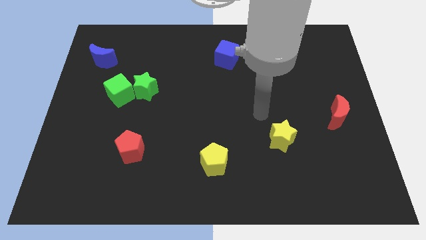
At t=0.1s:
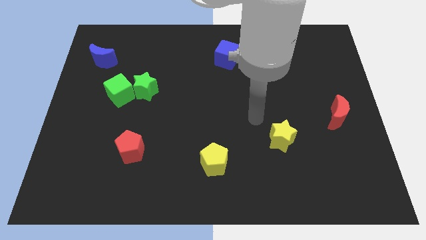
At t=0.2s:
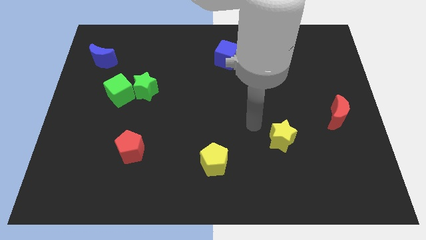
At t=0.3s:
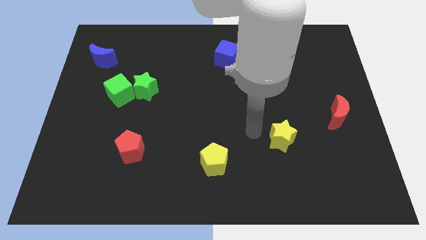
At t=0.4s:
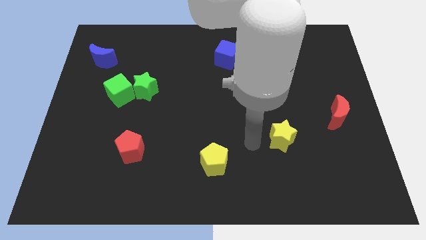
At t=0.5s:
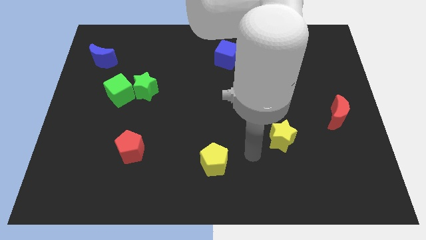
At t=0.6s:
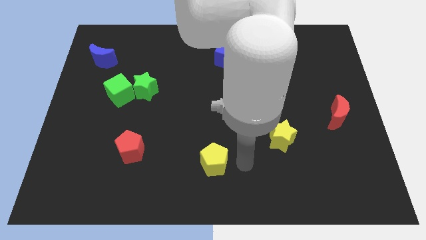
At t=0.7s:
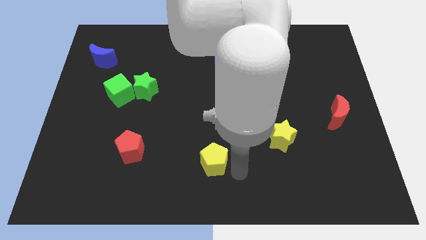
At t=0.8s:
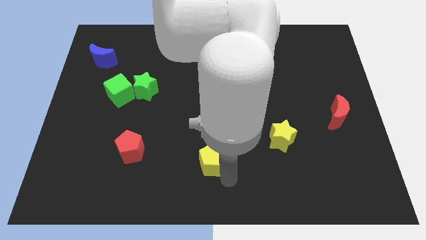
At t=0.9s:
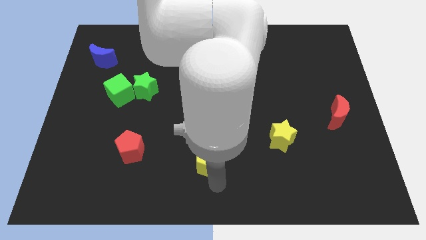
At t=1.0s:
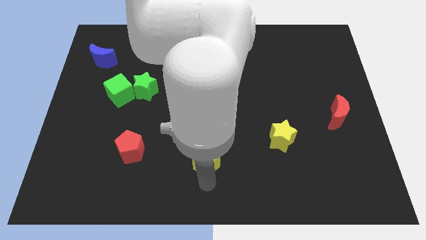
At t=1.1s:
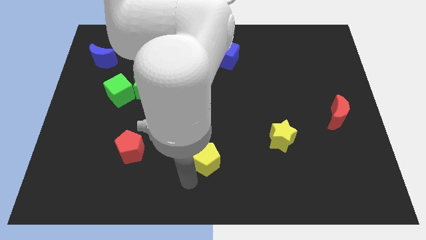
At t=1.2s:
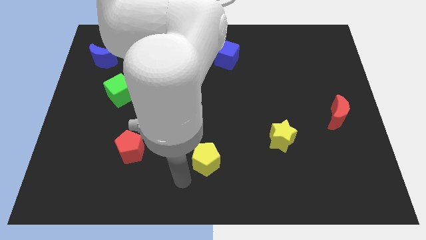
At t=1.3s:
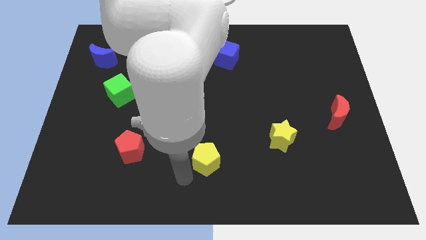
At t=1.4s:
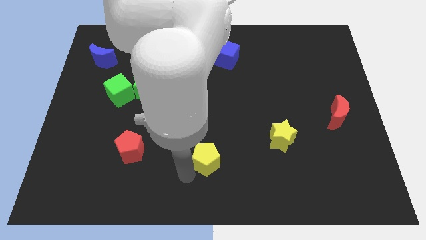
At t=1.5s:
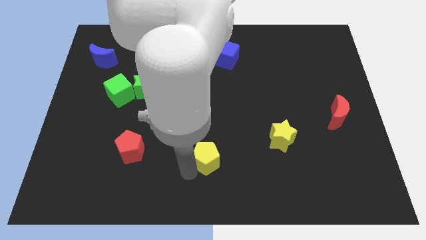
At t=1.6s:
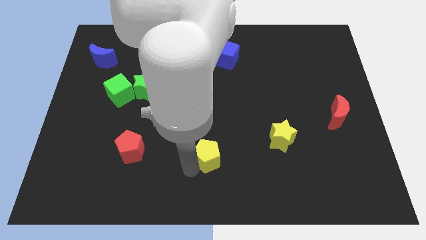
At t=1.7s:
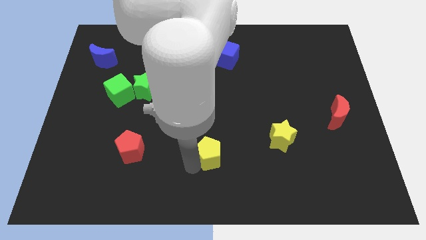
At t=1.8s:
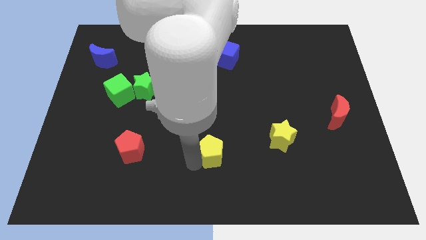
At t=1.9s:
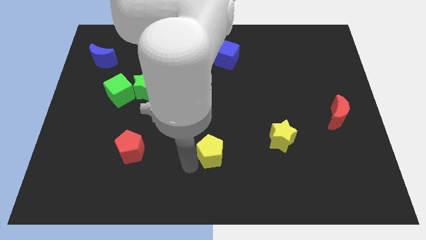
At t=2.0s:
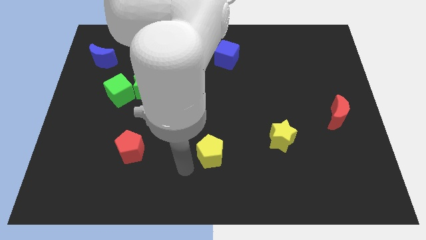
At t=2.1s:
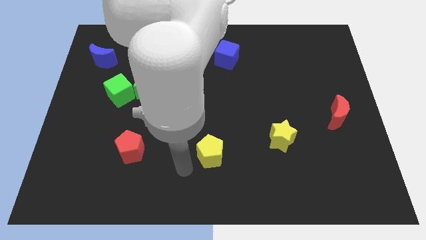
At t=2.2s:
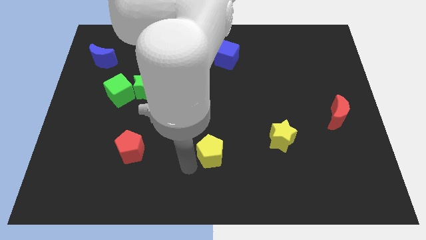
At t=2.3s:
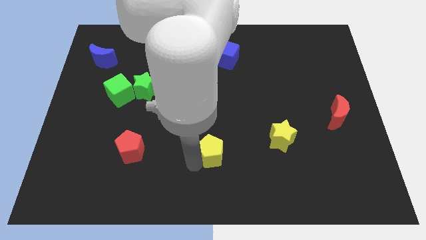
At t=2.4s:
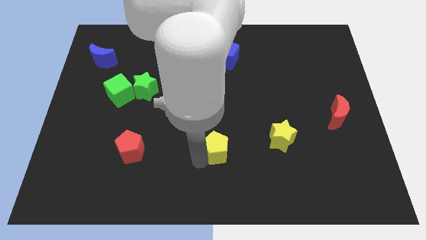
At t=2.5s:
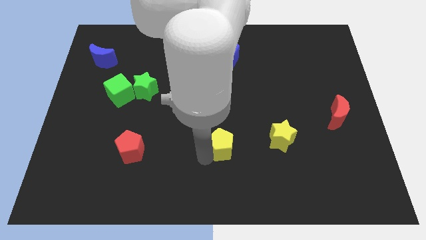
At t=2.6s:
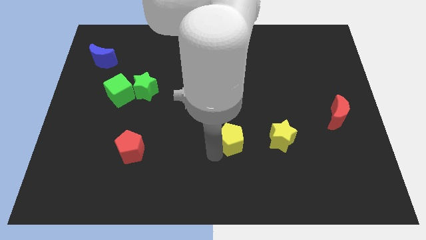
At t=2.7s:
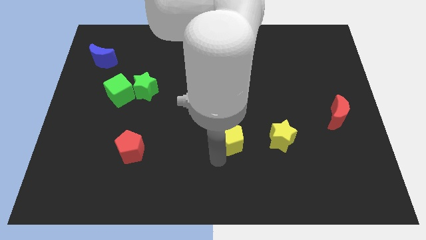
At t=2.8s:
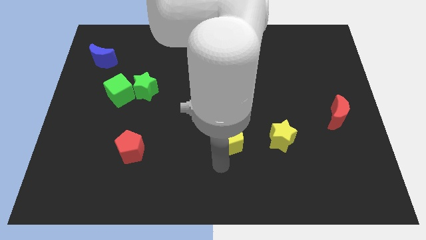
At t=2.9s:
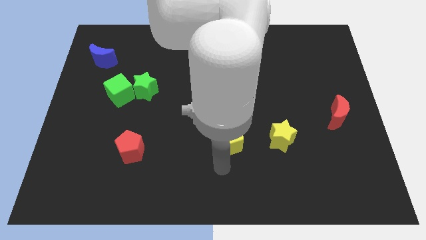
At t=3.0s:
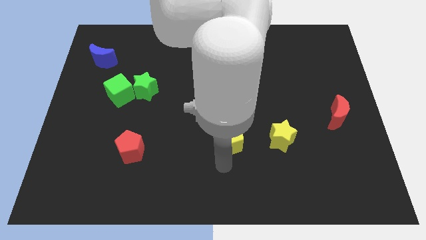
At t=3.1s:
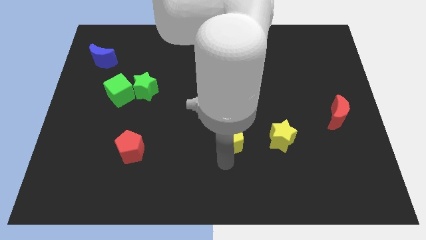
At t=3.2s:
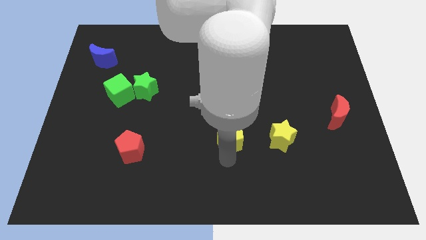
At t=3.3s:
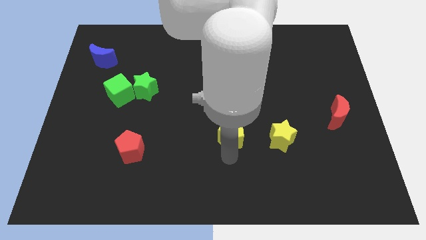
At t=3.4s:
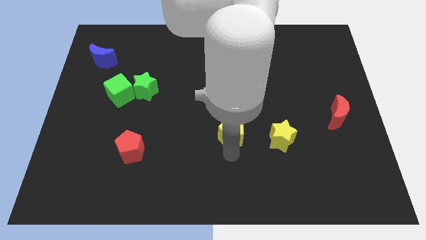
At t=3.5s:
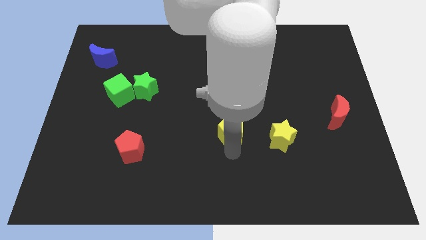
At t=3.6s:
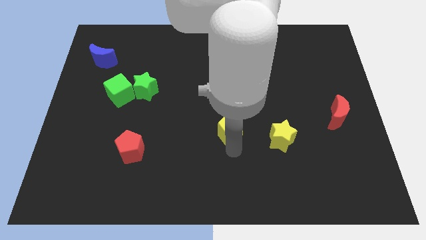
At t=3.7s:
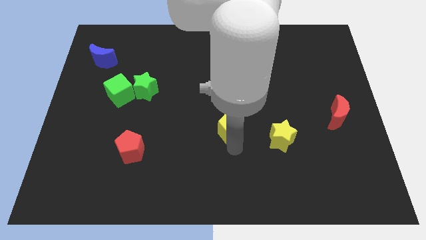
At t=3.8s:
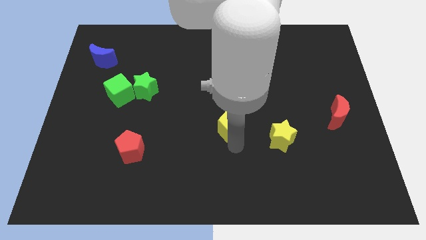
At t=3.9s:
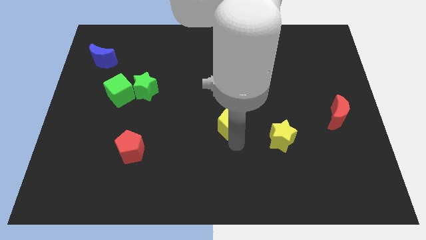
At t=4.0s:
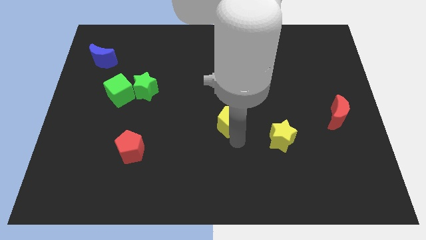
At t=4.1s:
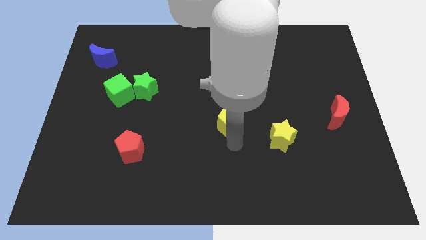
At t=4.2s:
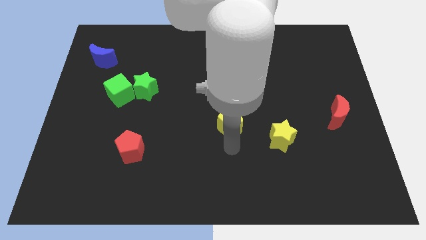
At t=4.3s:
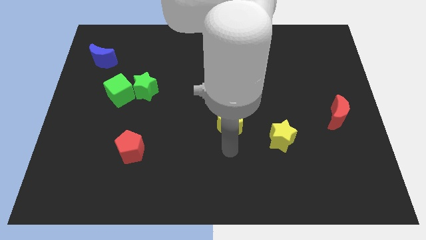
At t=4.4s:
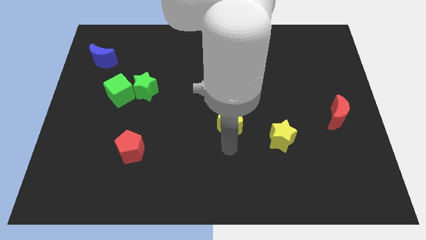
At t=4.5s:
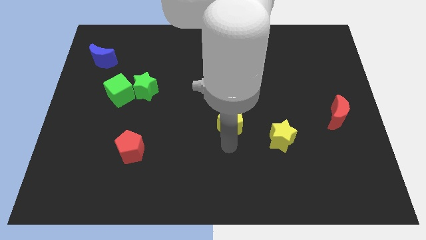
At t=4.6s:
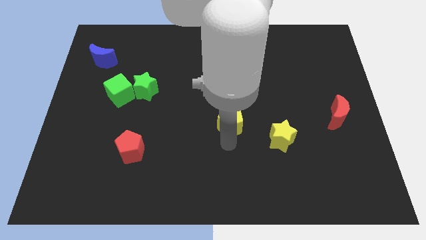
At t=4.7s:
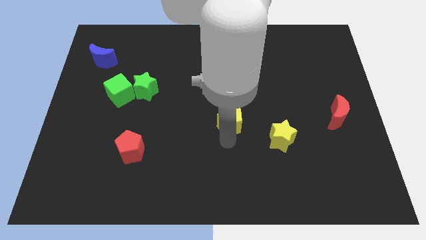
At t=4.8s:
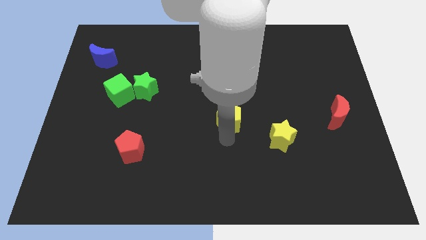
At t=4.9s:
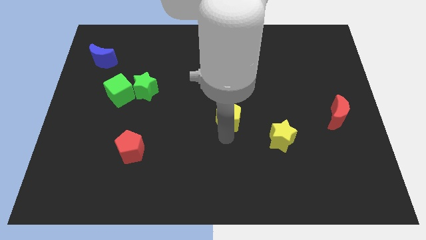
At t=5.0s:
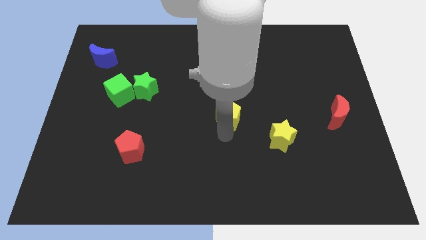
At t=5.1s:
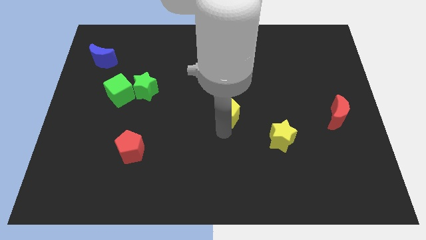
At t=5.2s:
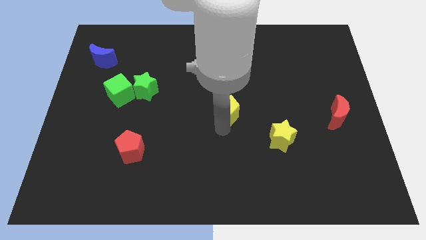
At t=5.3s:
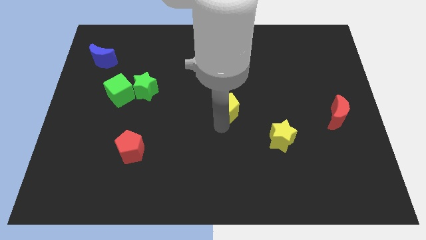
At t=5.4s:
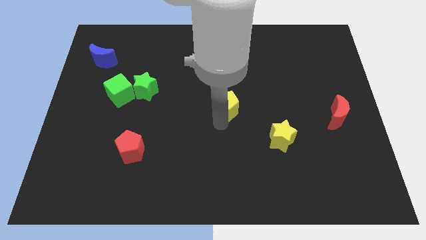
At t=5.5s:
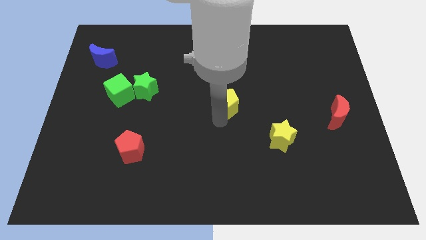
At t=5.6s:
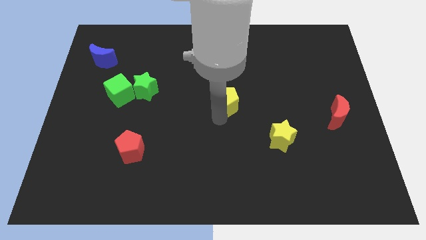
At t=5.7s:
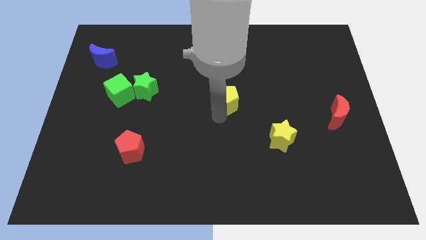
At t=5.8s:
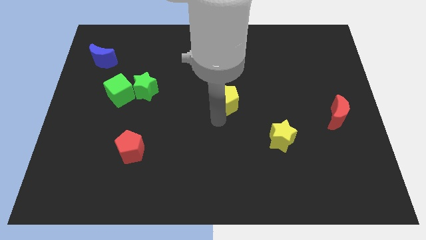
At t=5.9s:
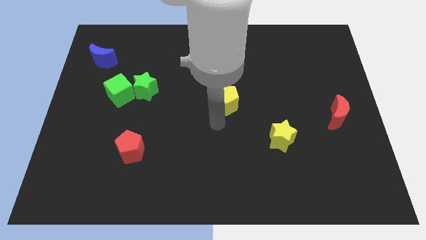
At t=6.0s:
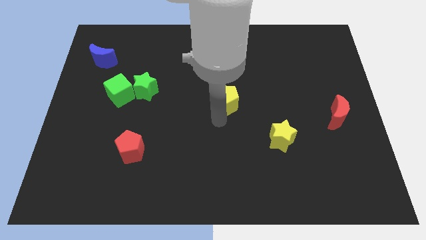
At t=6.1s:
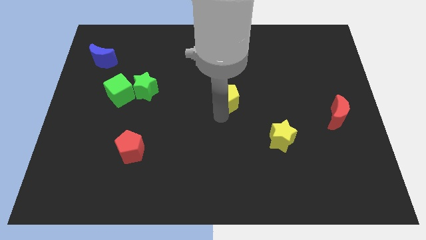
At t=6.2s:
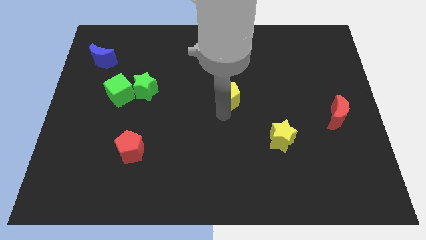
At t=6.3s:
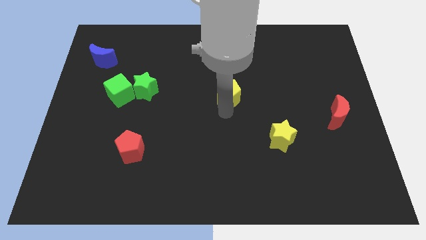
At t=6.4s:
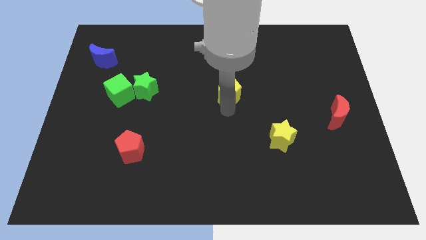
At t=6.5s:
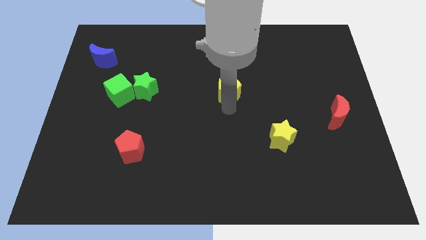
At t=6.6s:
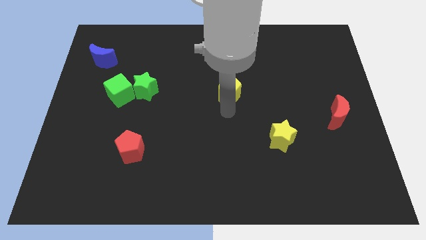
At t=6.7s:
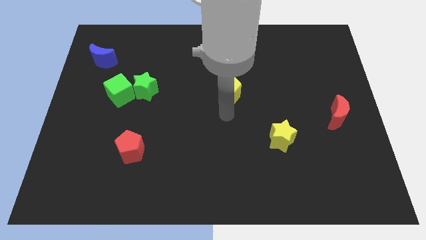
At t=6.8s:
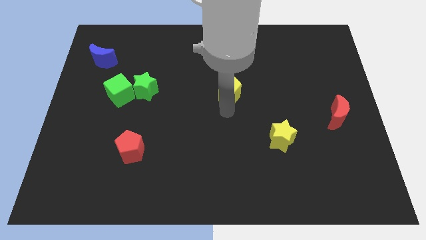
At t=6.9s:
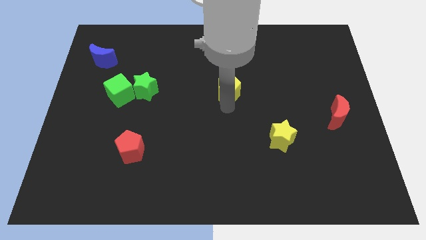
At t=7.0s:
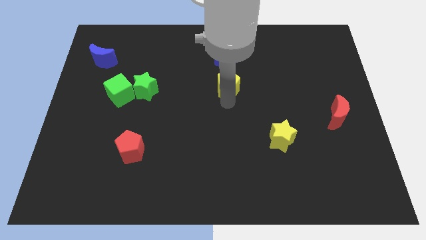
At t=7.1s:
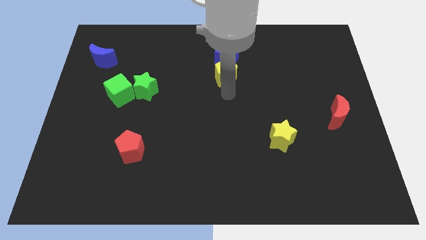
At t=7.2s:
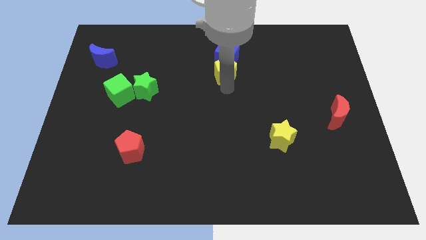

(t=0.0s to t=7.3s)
slide the yellow pentagon towards the blue cube

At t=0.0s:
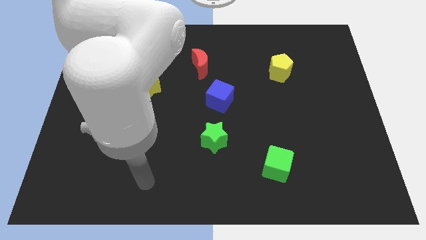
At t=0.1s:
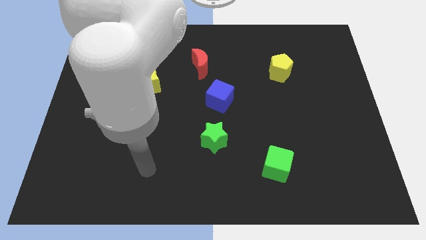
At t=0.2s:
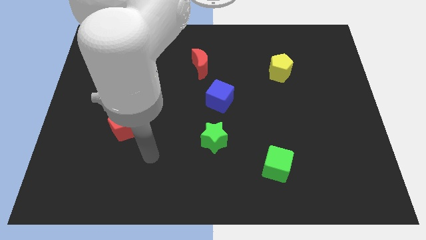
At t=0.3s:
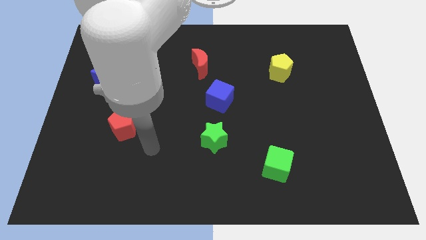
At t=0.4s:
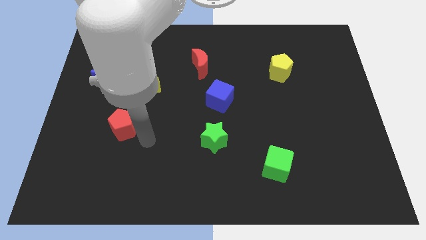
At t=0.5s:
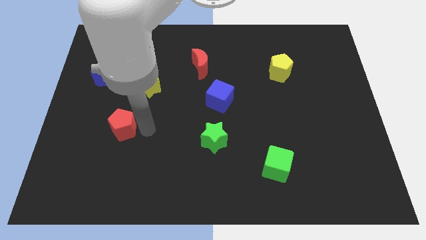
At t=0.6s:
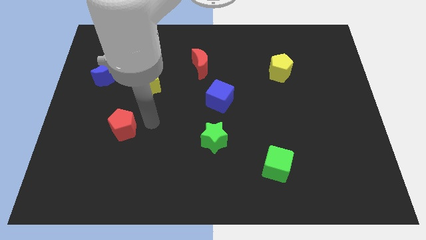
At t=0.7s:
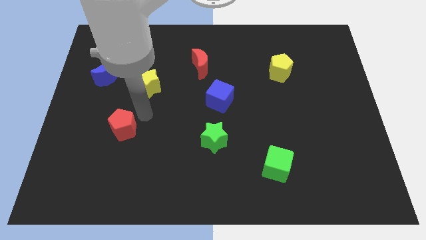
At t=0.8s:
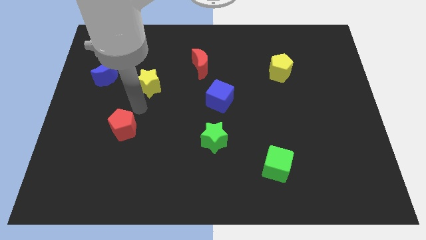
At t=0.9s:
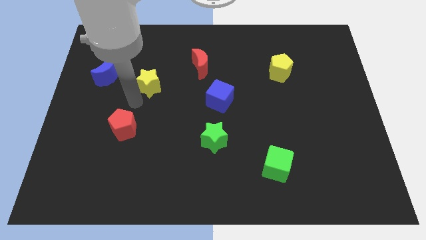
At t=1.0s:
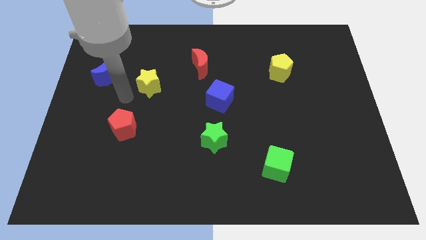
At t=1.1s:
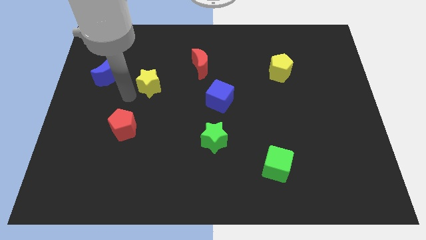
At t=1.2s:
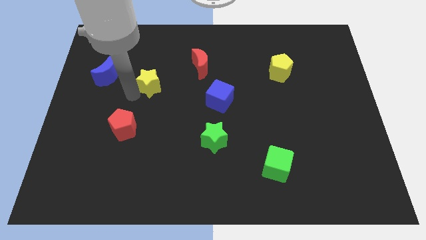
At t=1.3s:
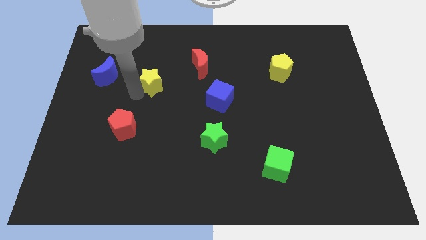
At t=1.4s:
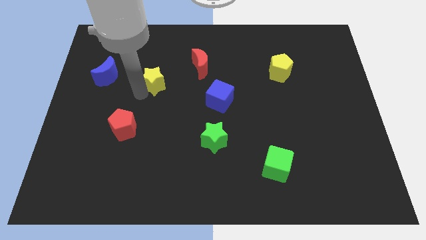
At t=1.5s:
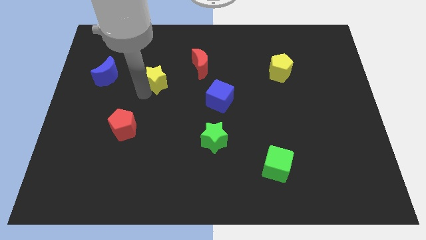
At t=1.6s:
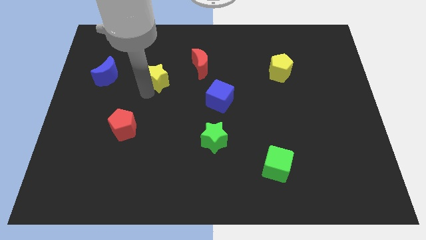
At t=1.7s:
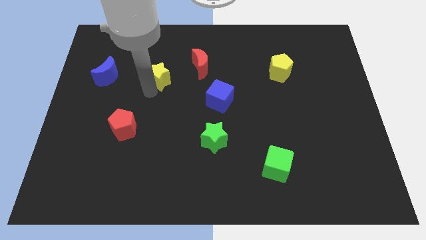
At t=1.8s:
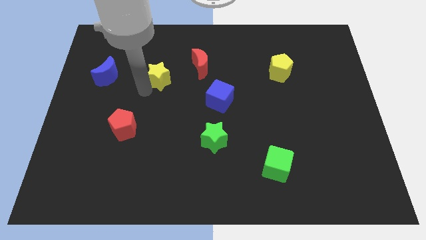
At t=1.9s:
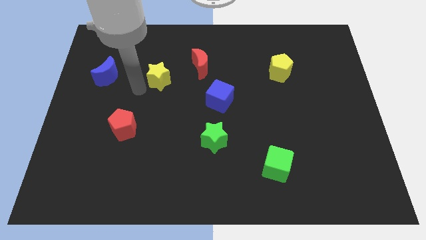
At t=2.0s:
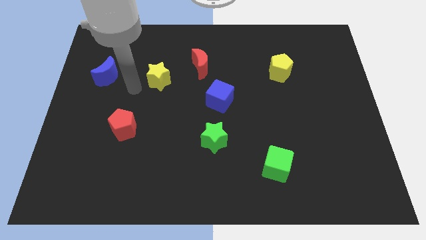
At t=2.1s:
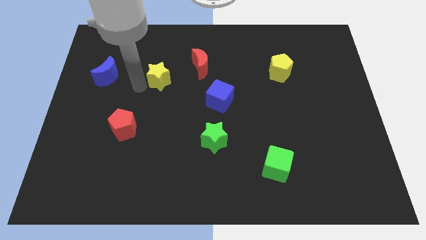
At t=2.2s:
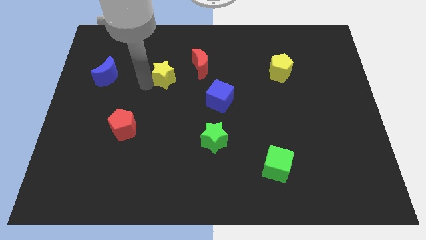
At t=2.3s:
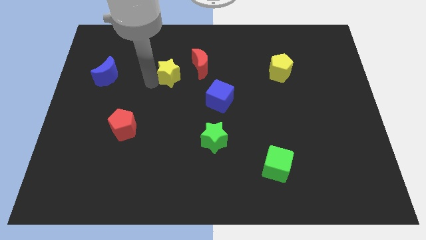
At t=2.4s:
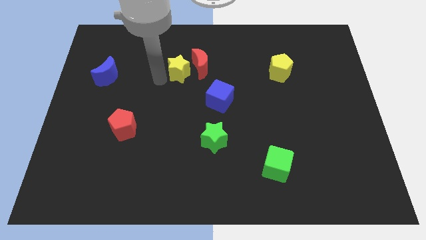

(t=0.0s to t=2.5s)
move the yellow star close to the red moon
